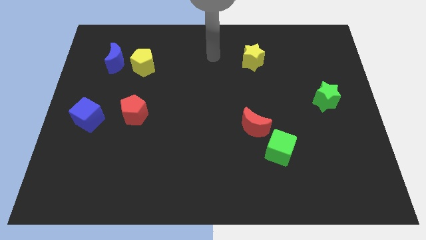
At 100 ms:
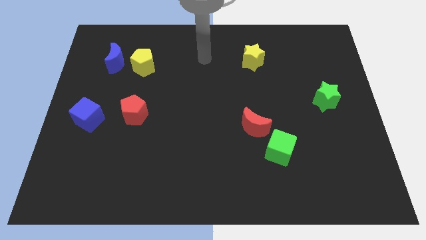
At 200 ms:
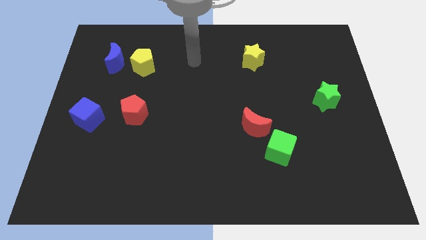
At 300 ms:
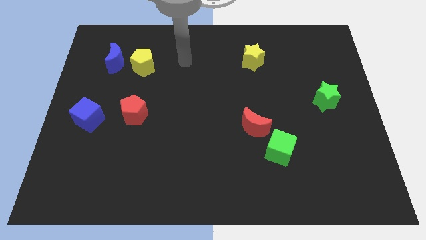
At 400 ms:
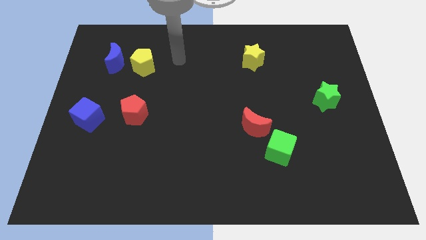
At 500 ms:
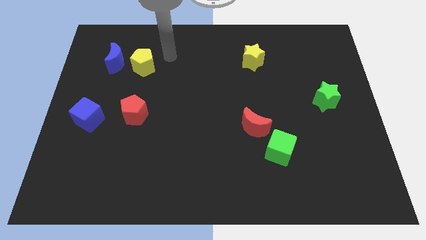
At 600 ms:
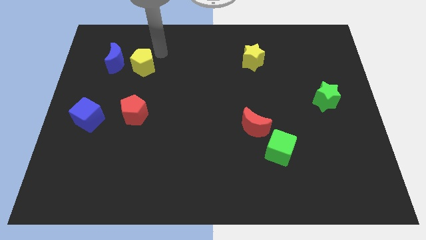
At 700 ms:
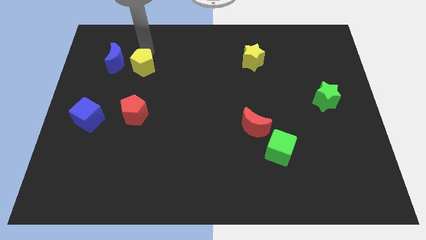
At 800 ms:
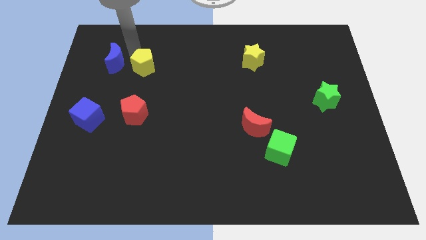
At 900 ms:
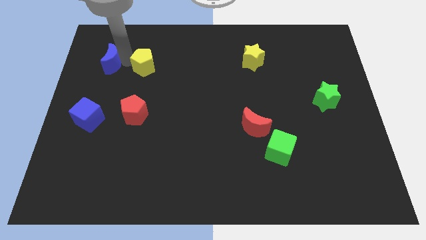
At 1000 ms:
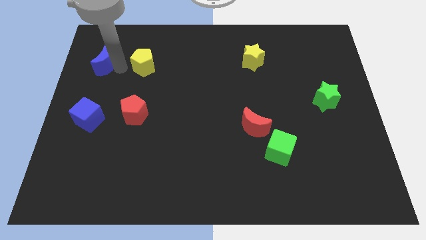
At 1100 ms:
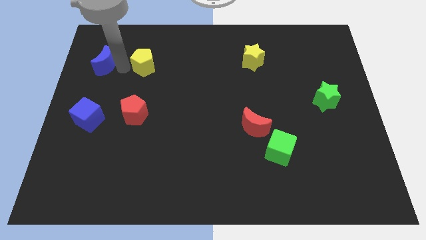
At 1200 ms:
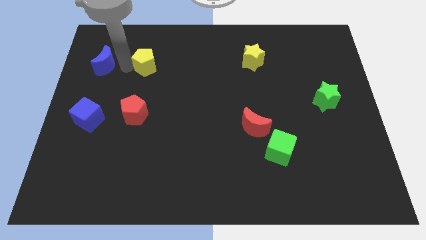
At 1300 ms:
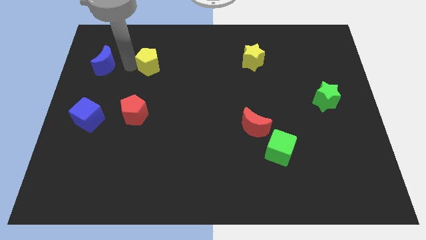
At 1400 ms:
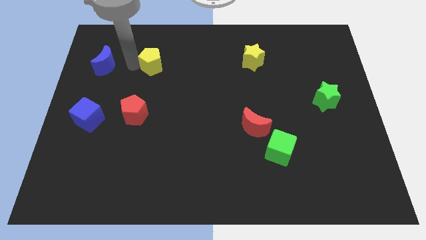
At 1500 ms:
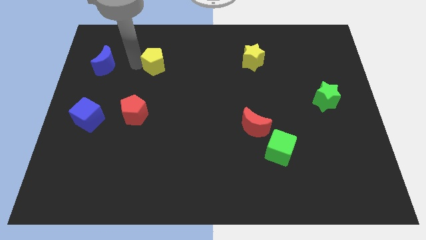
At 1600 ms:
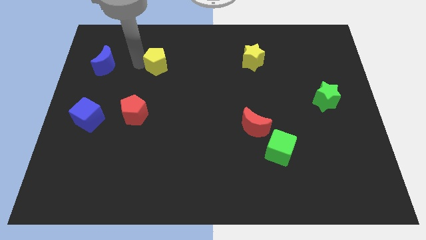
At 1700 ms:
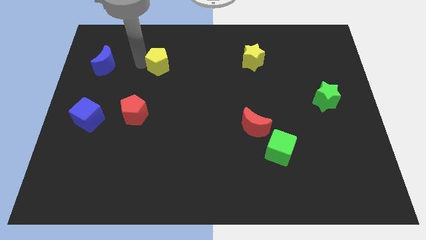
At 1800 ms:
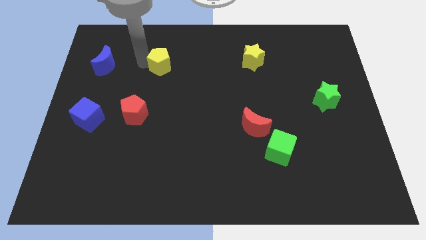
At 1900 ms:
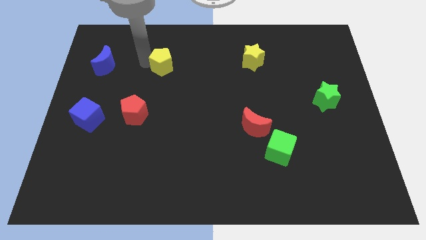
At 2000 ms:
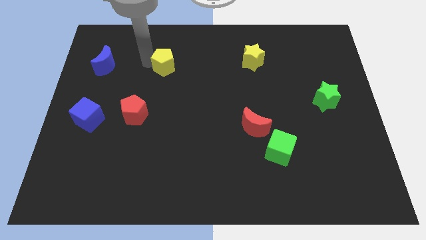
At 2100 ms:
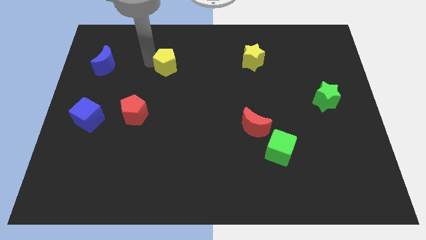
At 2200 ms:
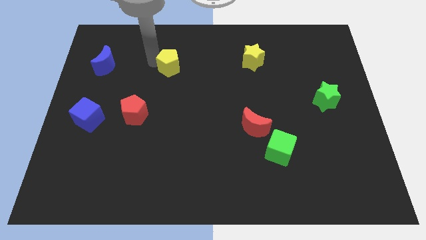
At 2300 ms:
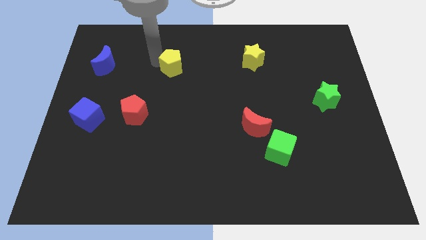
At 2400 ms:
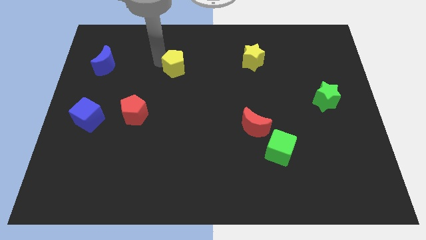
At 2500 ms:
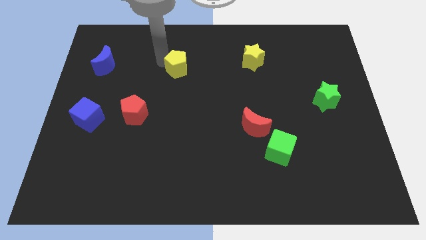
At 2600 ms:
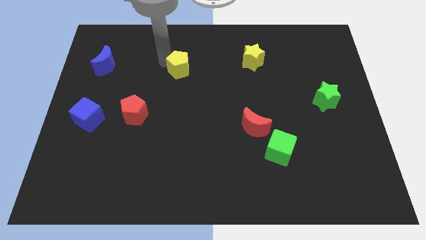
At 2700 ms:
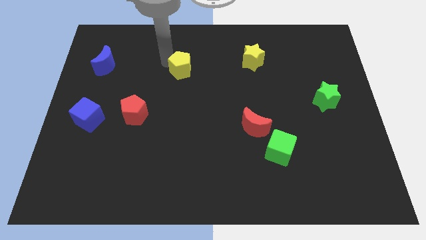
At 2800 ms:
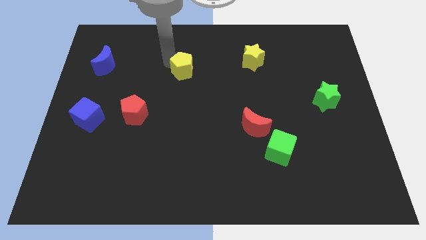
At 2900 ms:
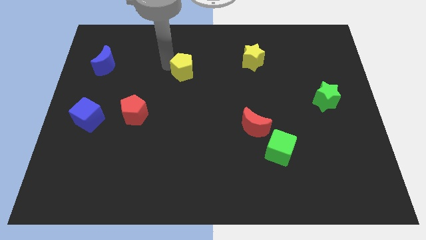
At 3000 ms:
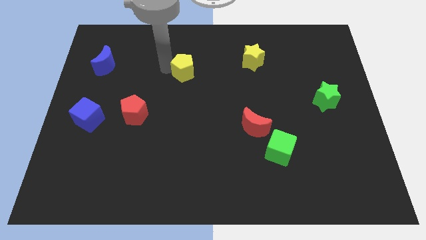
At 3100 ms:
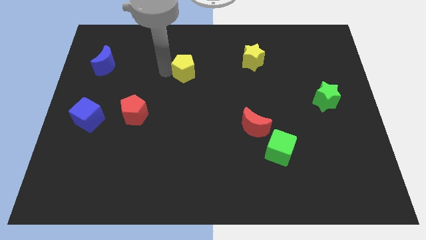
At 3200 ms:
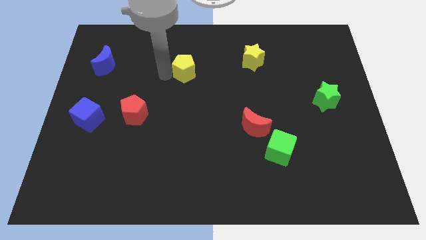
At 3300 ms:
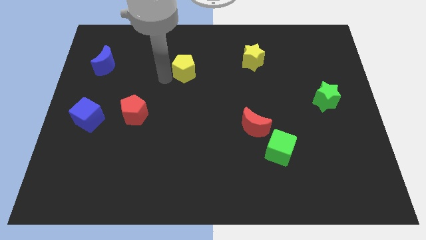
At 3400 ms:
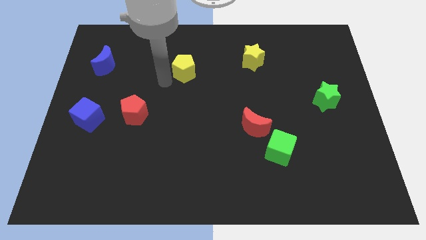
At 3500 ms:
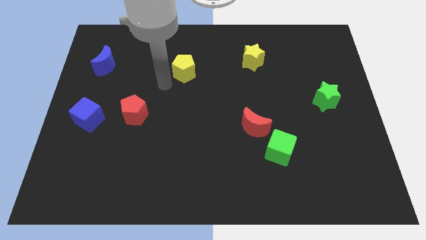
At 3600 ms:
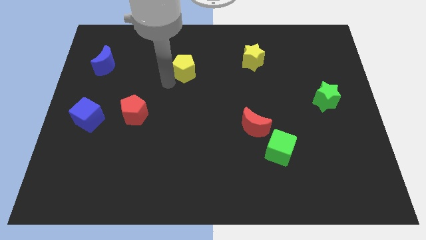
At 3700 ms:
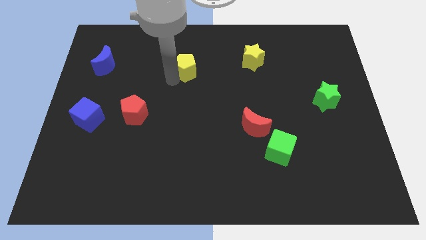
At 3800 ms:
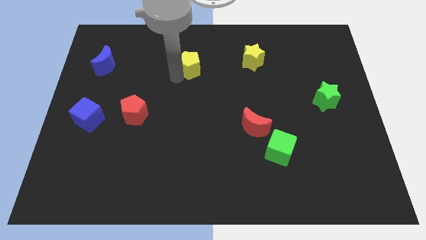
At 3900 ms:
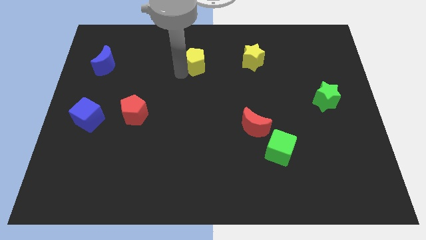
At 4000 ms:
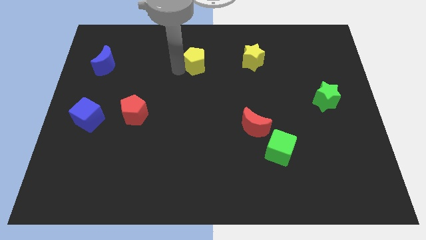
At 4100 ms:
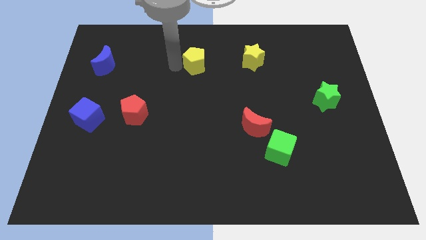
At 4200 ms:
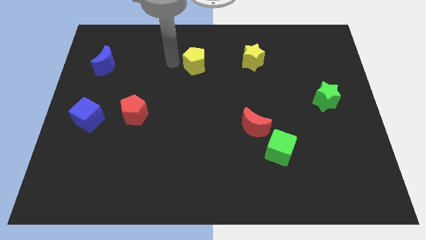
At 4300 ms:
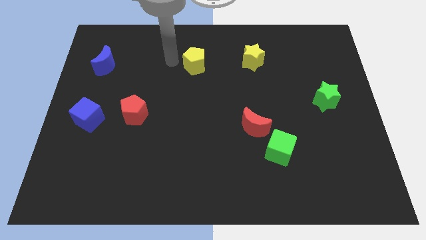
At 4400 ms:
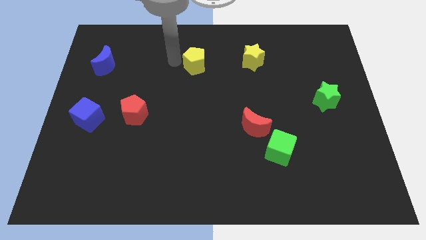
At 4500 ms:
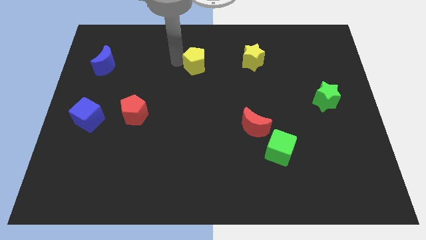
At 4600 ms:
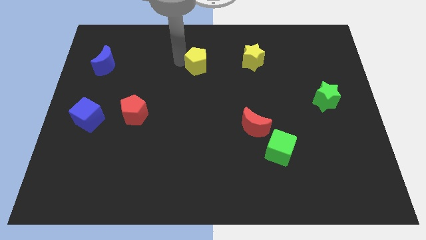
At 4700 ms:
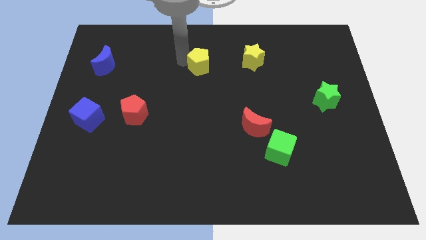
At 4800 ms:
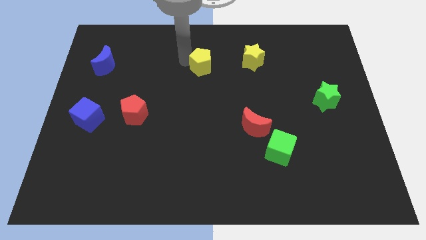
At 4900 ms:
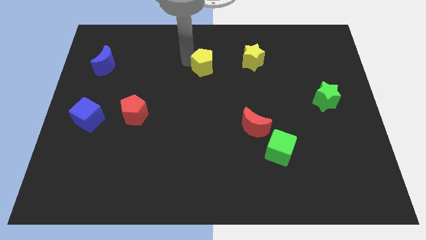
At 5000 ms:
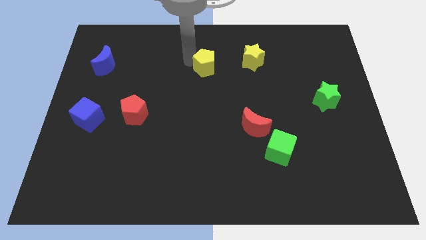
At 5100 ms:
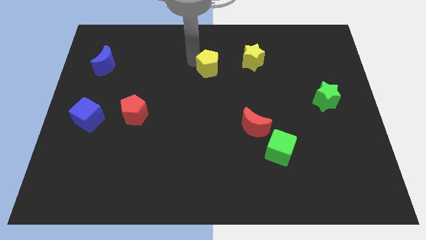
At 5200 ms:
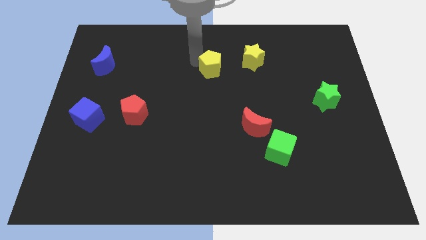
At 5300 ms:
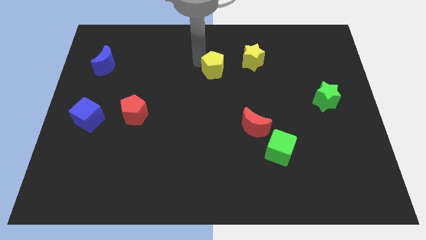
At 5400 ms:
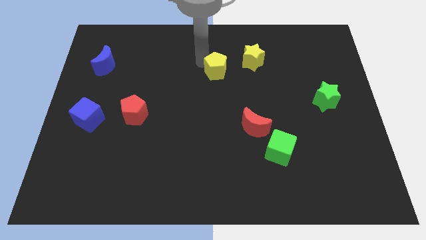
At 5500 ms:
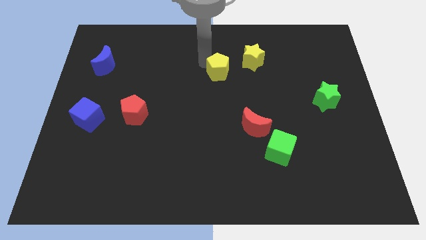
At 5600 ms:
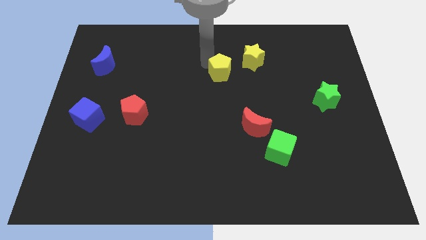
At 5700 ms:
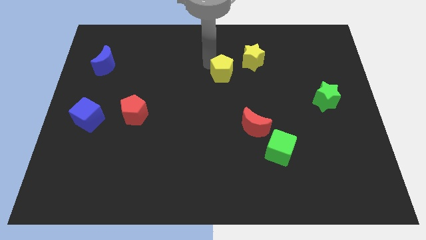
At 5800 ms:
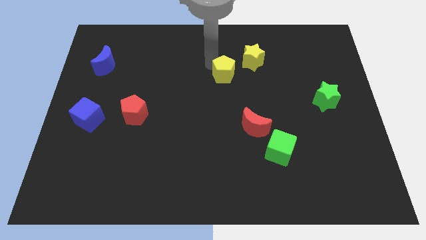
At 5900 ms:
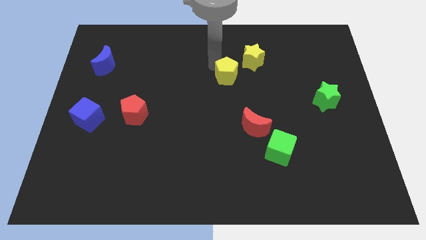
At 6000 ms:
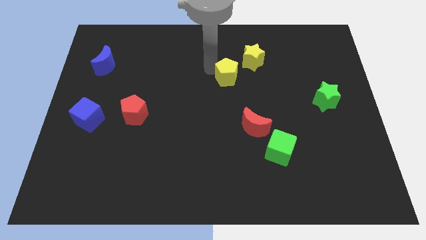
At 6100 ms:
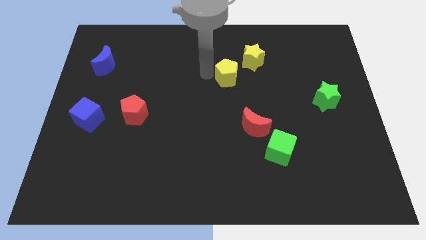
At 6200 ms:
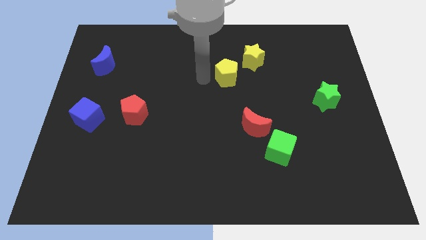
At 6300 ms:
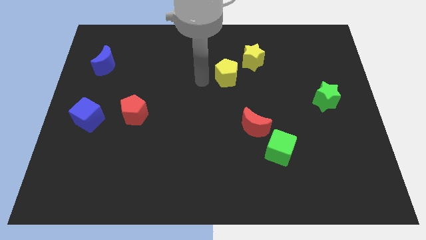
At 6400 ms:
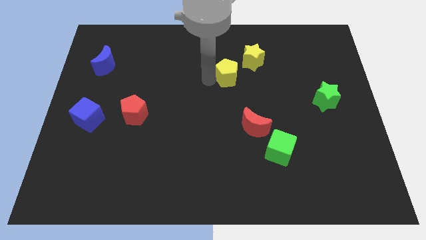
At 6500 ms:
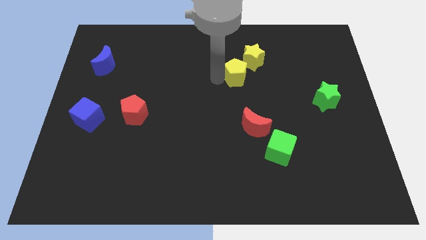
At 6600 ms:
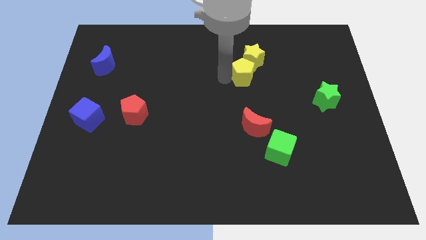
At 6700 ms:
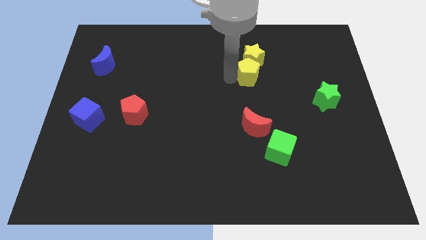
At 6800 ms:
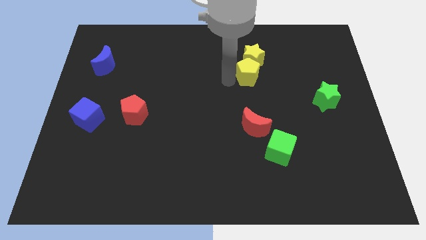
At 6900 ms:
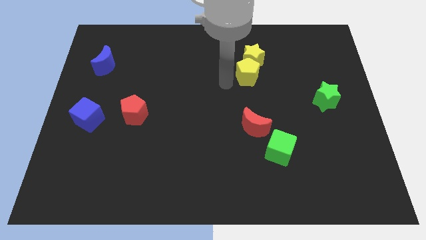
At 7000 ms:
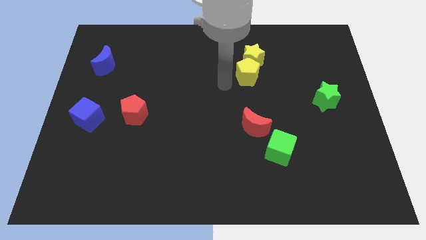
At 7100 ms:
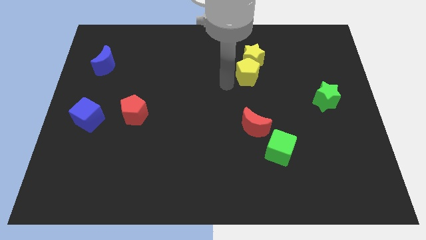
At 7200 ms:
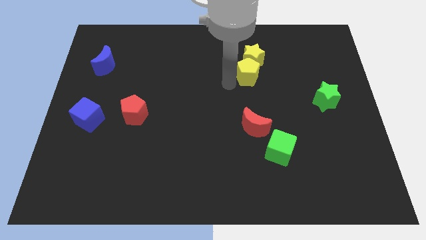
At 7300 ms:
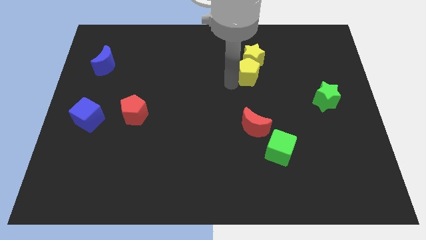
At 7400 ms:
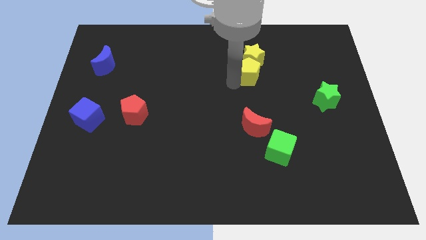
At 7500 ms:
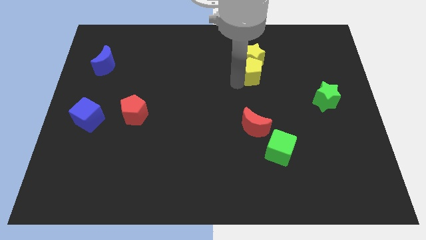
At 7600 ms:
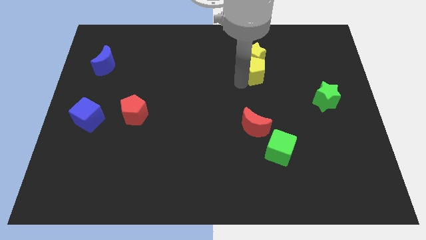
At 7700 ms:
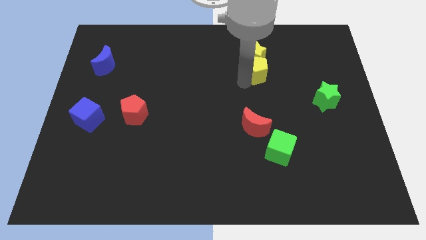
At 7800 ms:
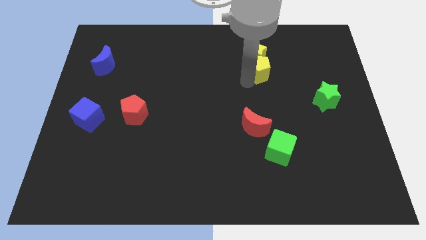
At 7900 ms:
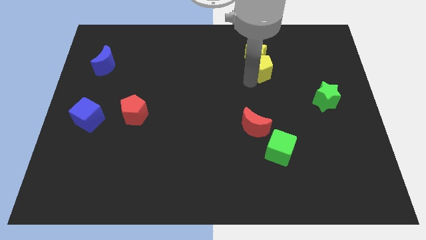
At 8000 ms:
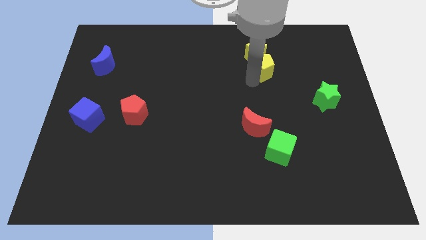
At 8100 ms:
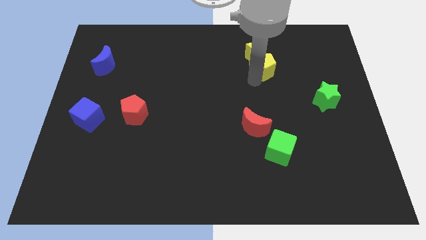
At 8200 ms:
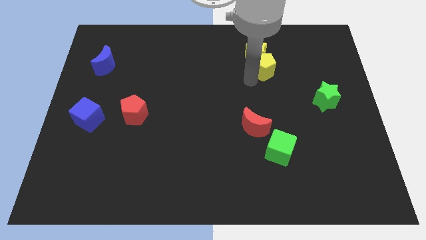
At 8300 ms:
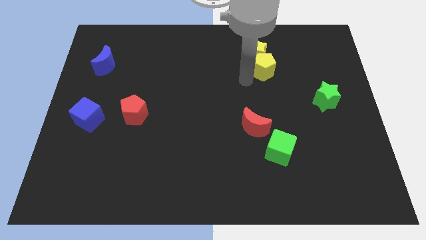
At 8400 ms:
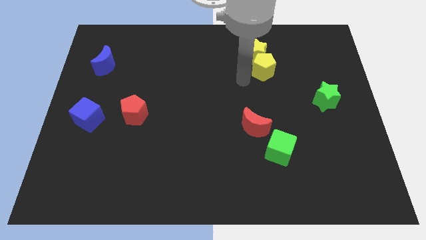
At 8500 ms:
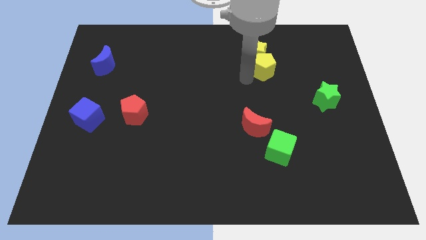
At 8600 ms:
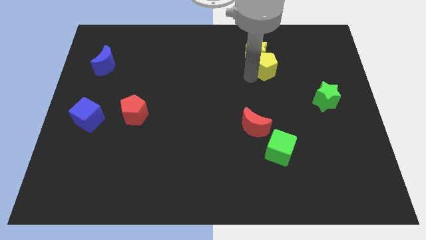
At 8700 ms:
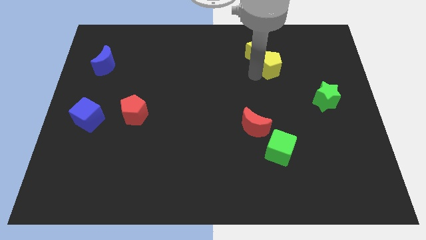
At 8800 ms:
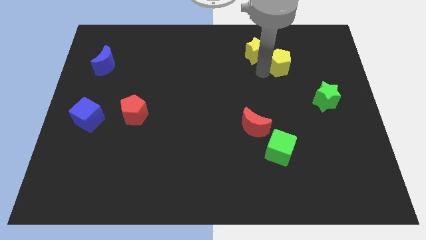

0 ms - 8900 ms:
put the yellow pentagon right of the yellow star
